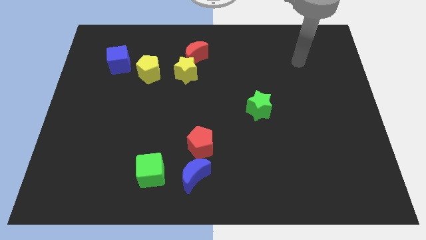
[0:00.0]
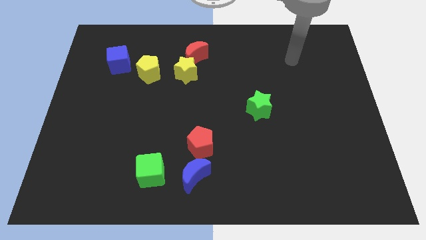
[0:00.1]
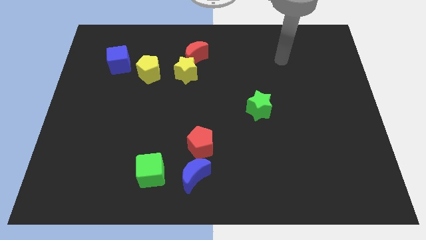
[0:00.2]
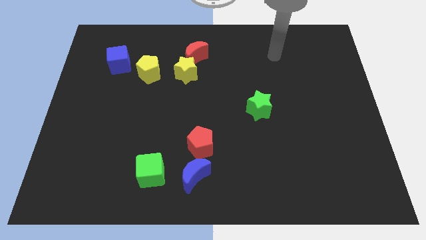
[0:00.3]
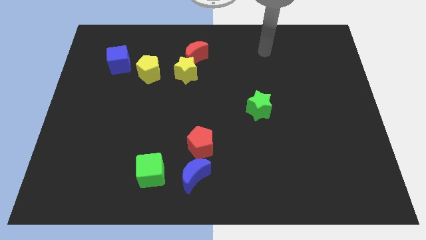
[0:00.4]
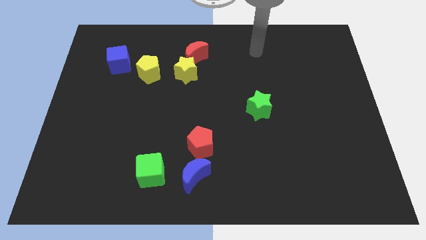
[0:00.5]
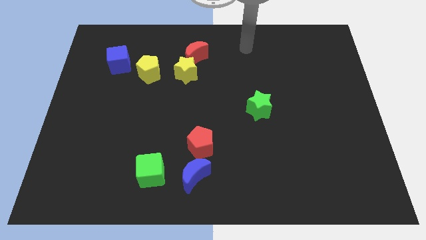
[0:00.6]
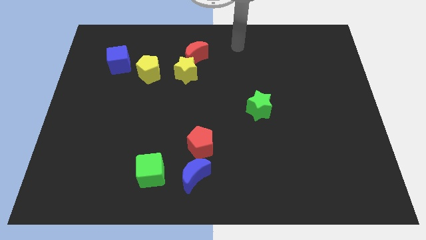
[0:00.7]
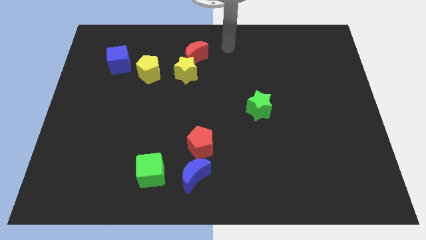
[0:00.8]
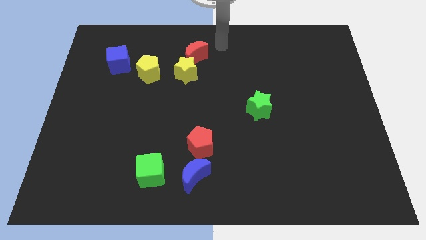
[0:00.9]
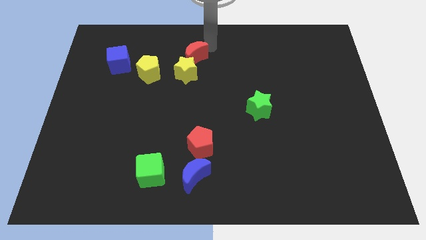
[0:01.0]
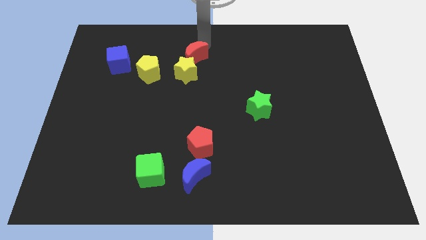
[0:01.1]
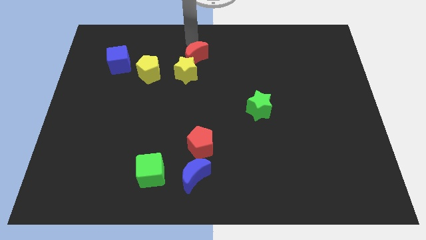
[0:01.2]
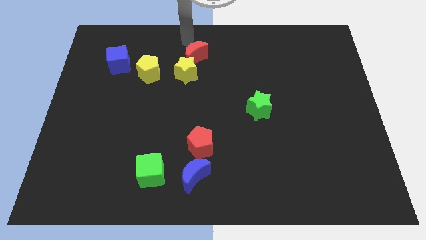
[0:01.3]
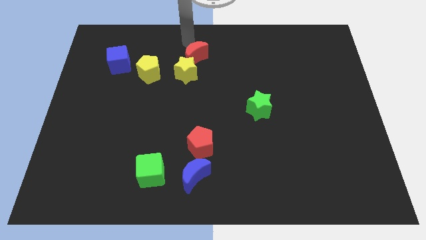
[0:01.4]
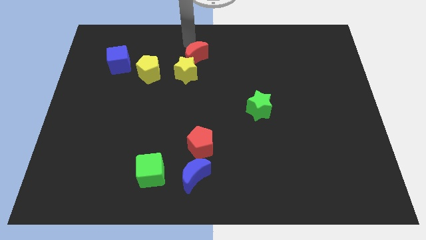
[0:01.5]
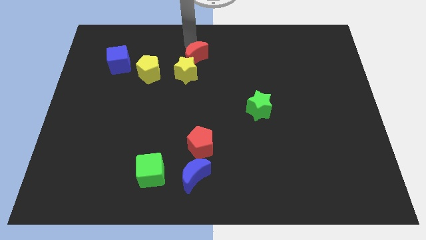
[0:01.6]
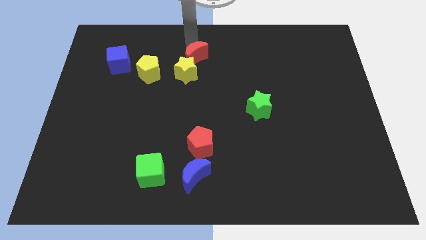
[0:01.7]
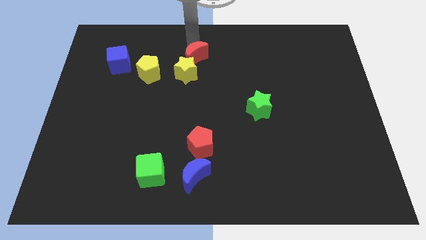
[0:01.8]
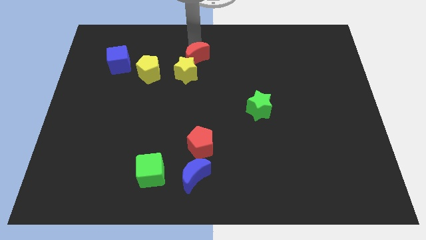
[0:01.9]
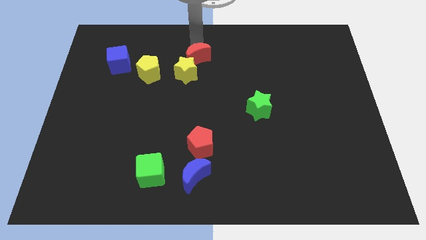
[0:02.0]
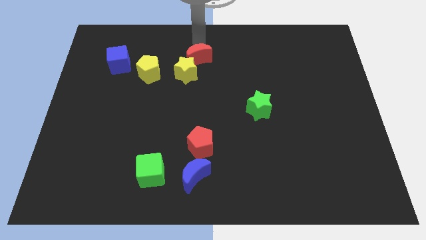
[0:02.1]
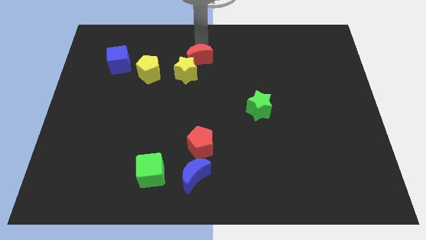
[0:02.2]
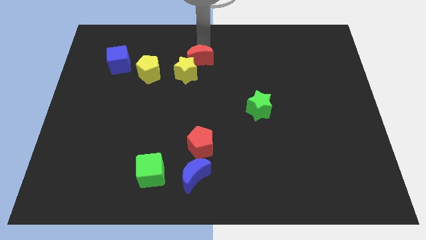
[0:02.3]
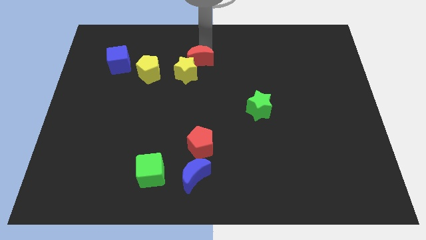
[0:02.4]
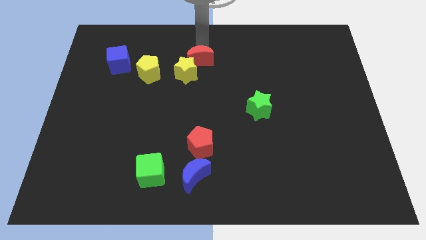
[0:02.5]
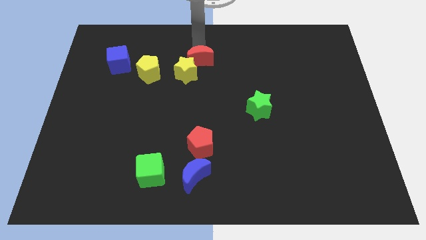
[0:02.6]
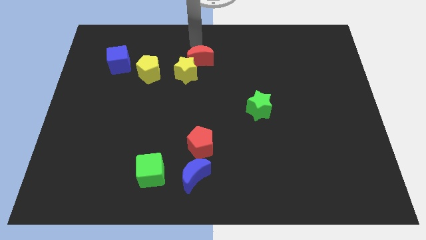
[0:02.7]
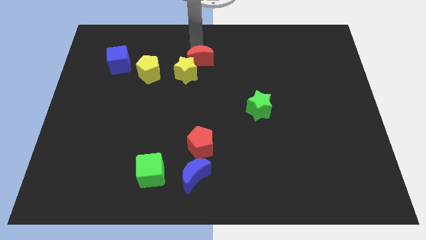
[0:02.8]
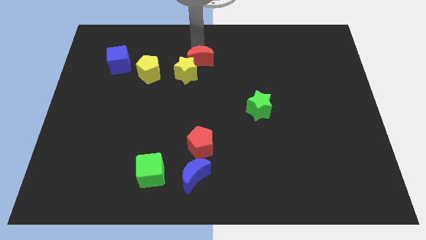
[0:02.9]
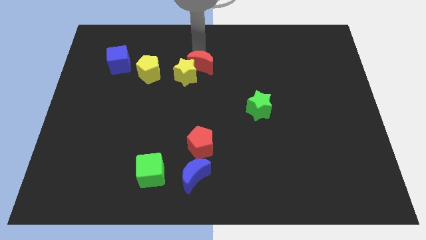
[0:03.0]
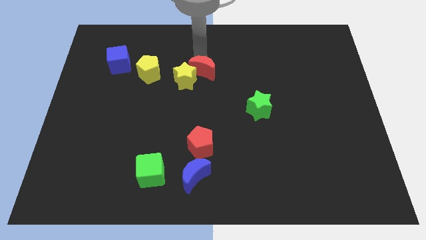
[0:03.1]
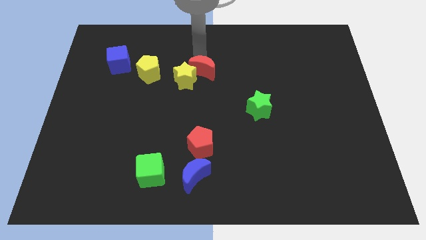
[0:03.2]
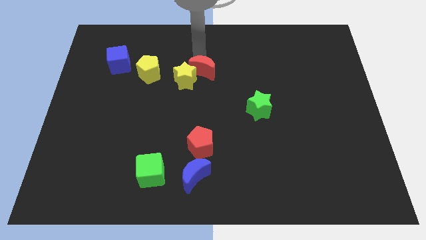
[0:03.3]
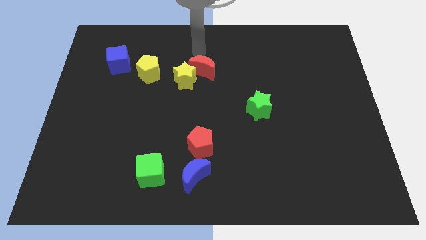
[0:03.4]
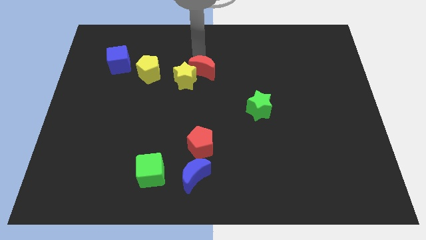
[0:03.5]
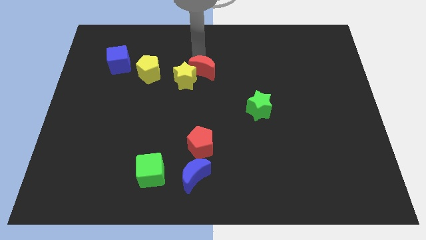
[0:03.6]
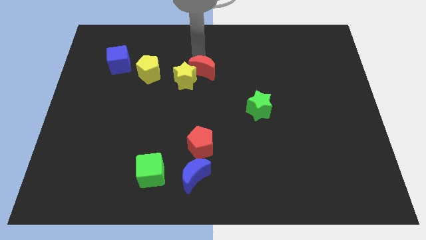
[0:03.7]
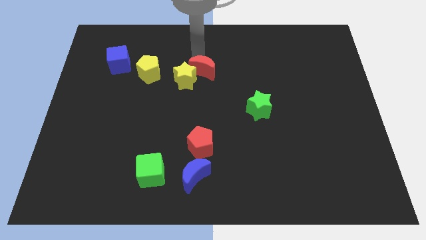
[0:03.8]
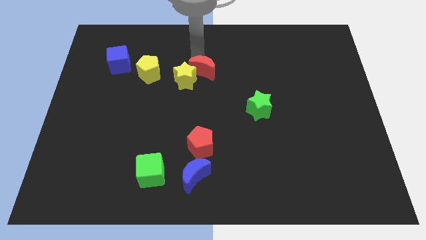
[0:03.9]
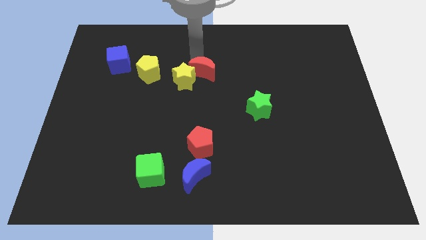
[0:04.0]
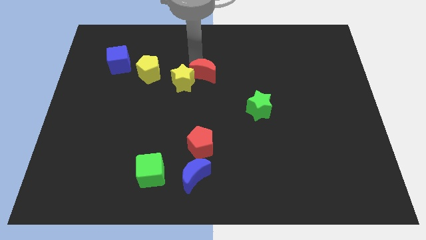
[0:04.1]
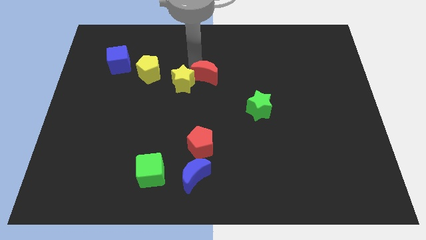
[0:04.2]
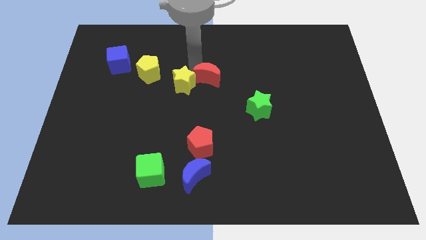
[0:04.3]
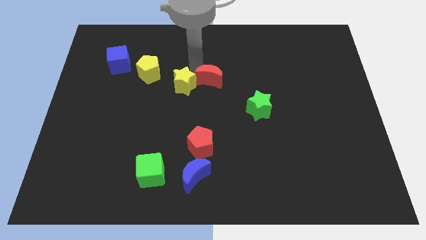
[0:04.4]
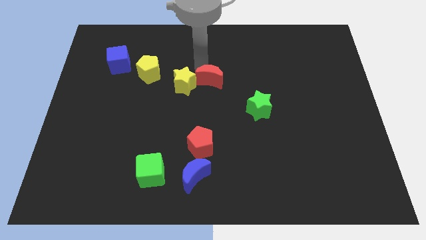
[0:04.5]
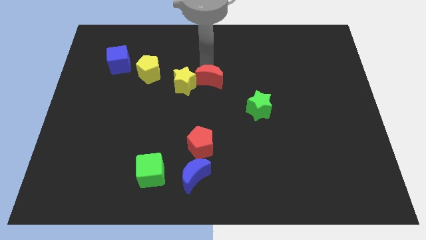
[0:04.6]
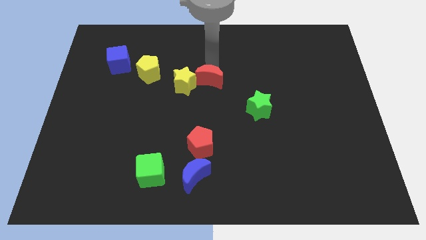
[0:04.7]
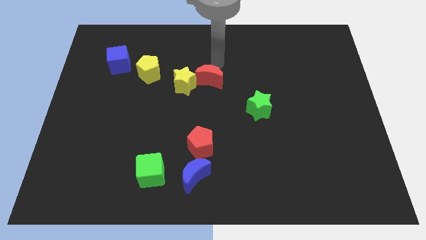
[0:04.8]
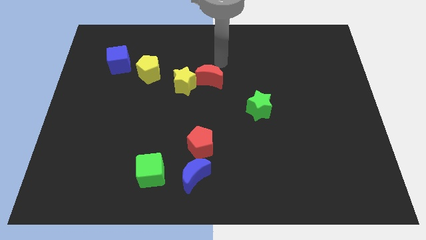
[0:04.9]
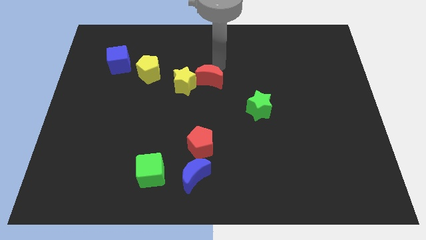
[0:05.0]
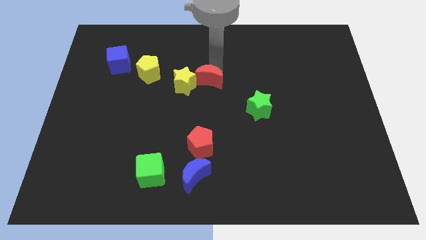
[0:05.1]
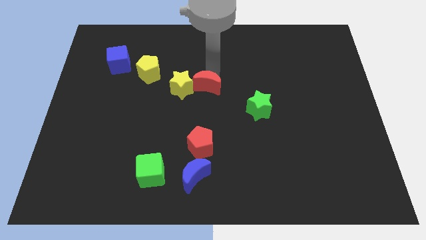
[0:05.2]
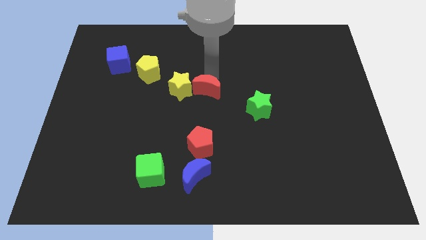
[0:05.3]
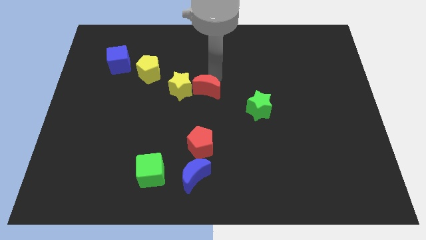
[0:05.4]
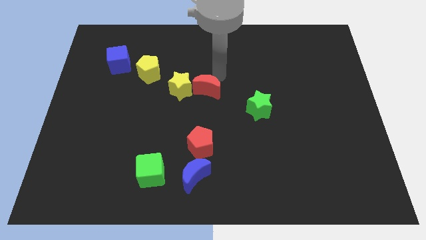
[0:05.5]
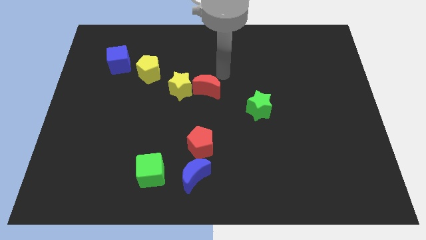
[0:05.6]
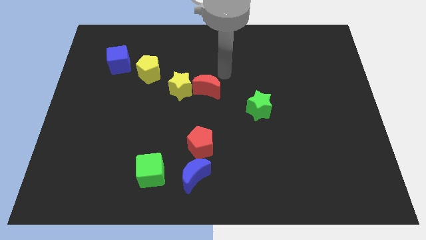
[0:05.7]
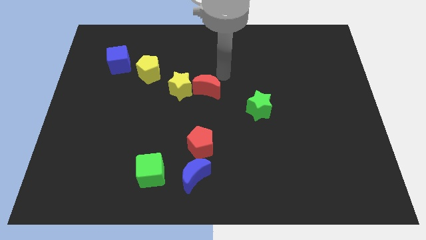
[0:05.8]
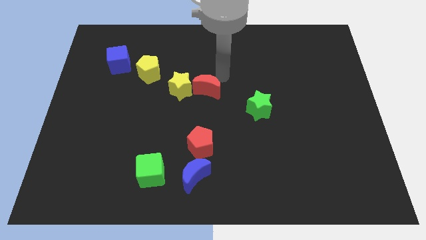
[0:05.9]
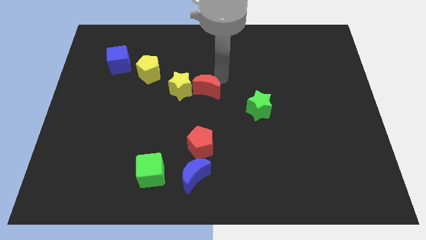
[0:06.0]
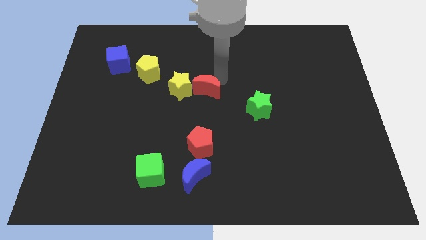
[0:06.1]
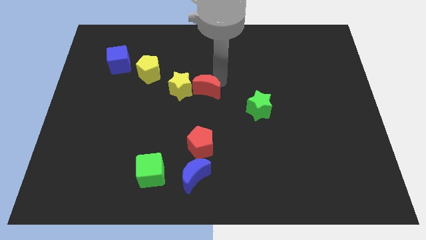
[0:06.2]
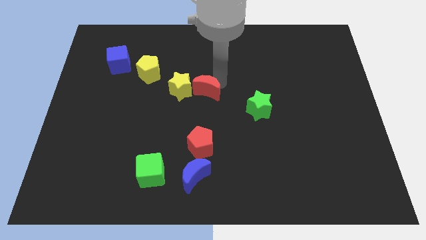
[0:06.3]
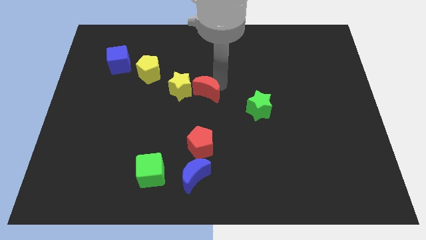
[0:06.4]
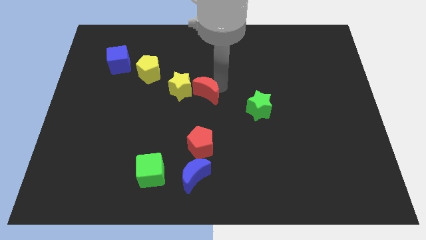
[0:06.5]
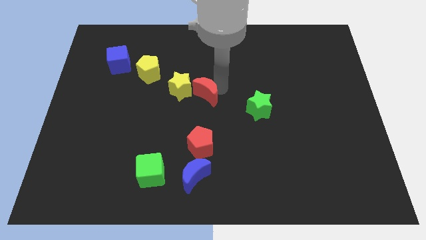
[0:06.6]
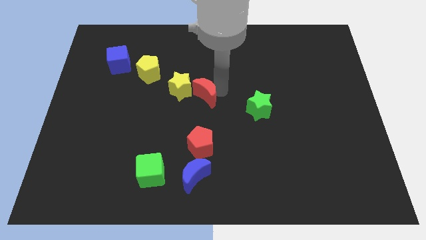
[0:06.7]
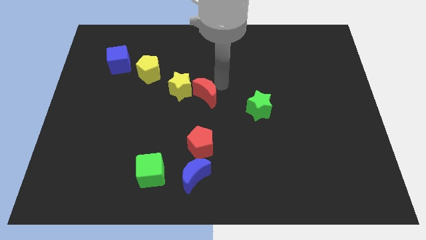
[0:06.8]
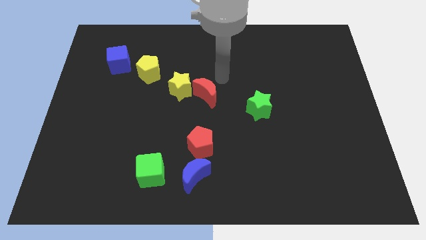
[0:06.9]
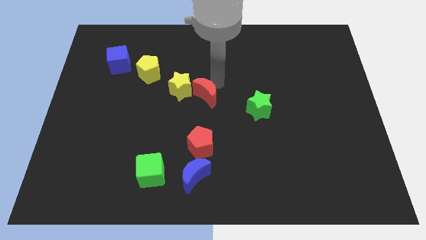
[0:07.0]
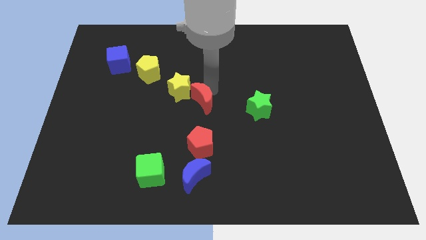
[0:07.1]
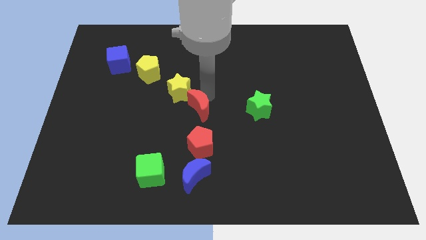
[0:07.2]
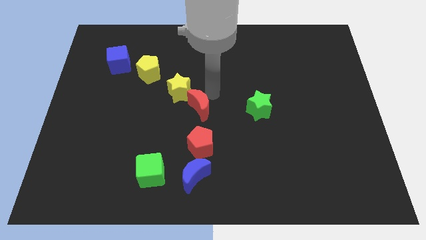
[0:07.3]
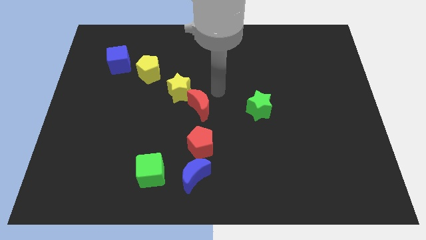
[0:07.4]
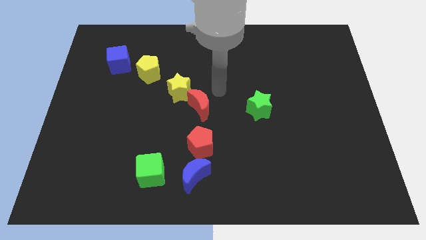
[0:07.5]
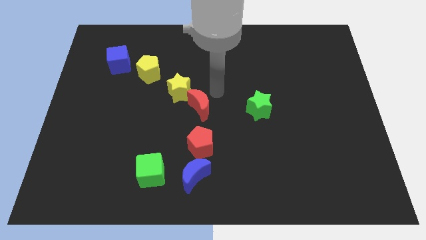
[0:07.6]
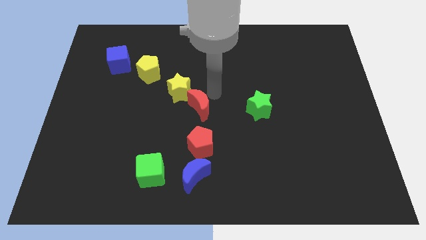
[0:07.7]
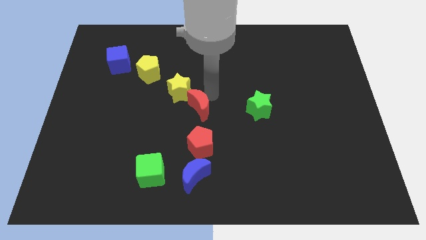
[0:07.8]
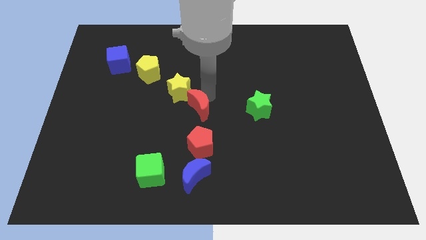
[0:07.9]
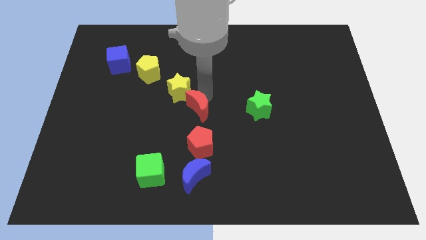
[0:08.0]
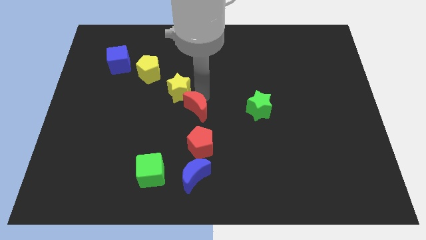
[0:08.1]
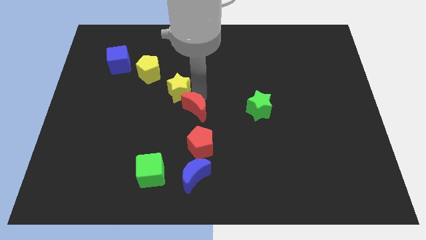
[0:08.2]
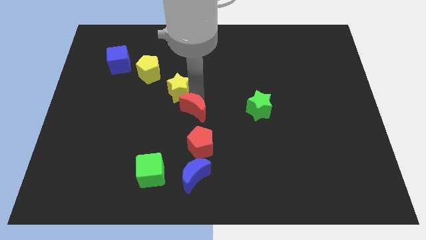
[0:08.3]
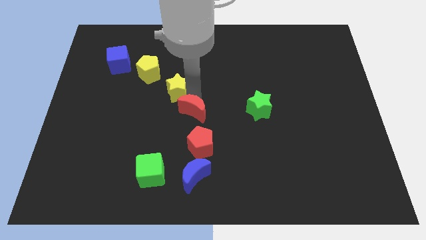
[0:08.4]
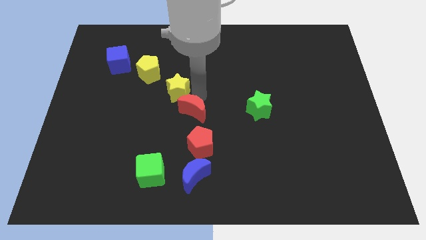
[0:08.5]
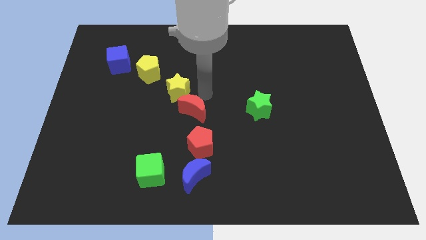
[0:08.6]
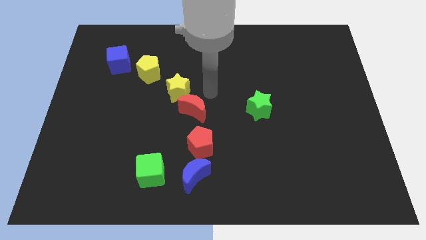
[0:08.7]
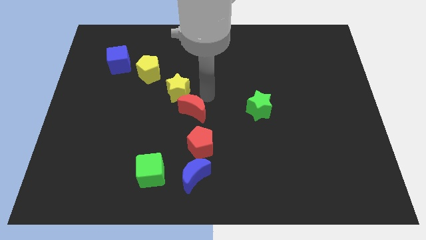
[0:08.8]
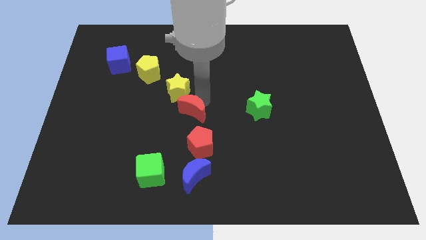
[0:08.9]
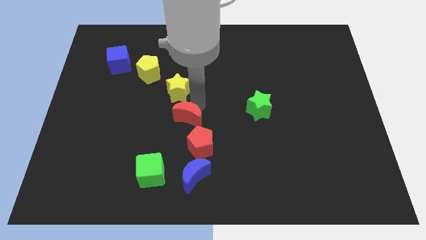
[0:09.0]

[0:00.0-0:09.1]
put the red moon diagonally up and to the left of the red pentagon
